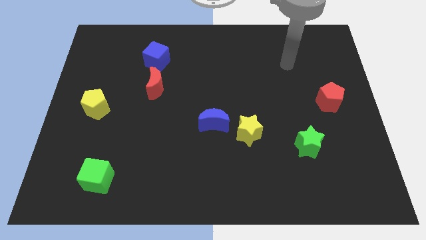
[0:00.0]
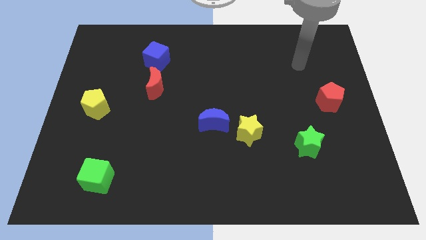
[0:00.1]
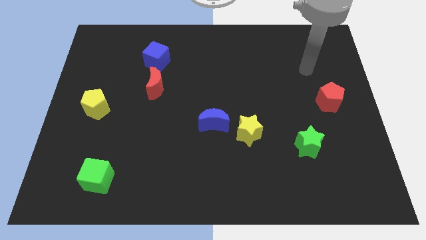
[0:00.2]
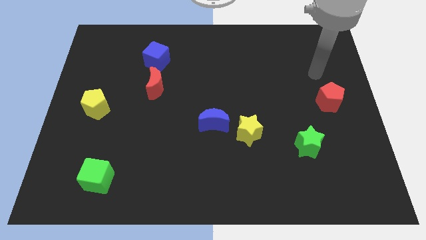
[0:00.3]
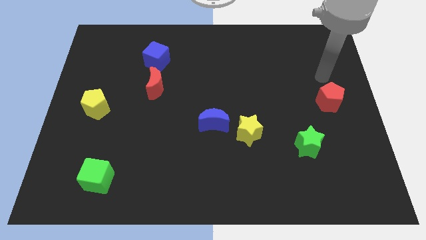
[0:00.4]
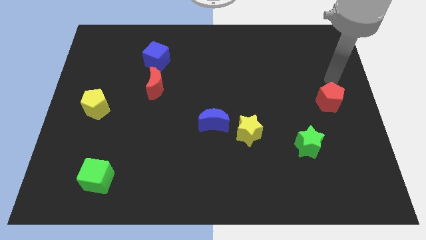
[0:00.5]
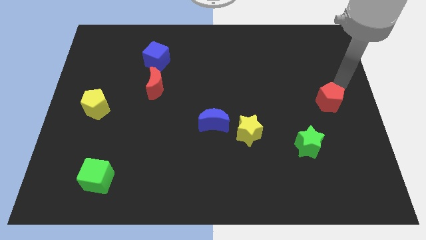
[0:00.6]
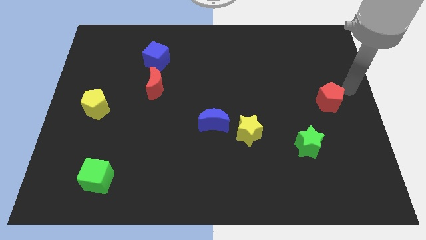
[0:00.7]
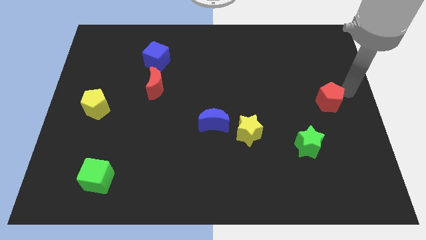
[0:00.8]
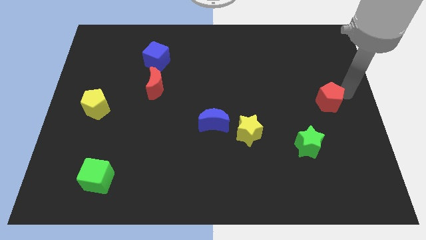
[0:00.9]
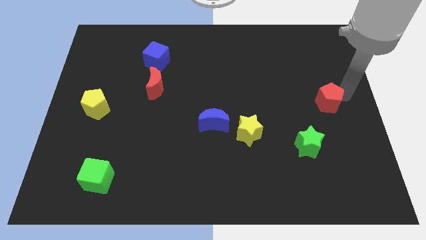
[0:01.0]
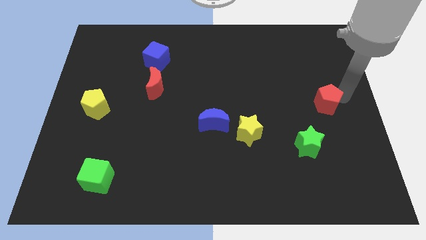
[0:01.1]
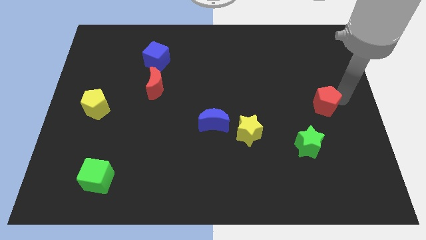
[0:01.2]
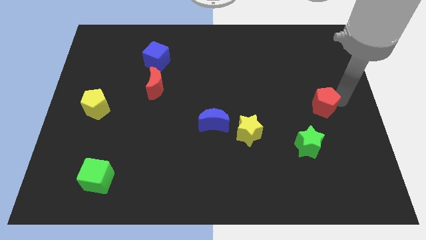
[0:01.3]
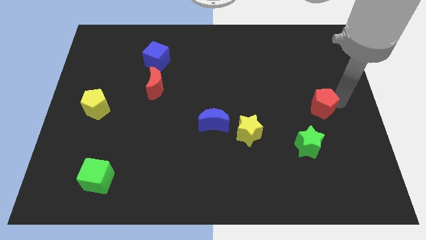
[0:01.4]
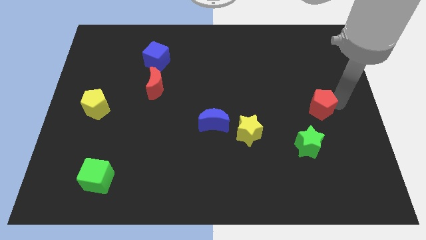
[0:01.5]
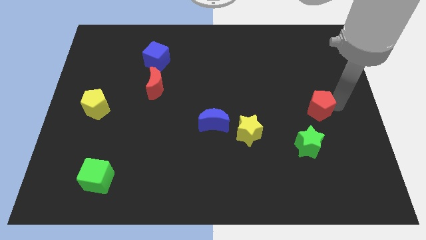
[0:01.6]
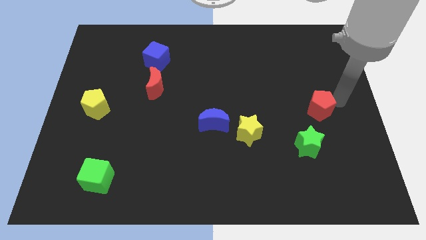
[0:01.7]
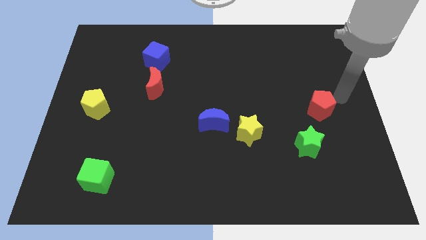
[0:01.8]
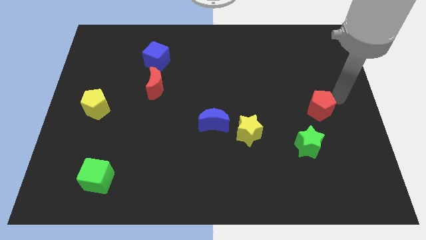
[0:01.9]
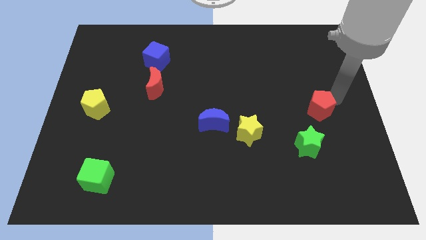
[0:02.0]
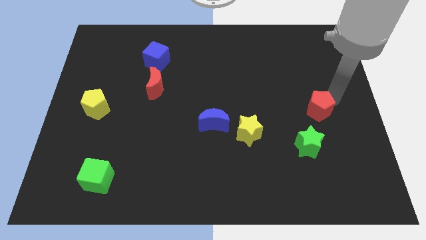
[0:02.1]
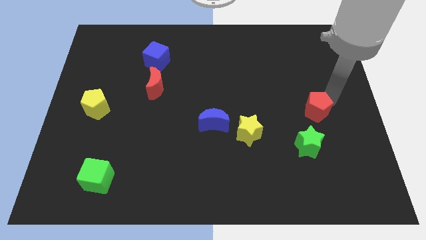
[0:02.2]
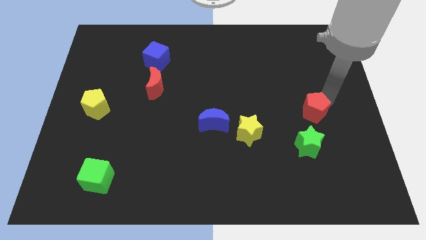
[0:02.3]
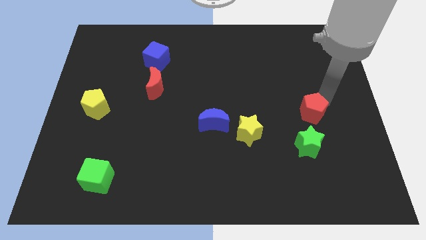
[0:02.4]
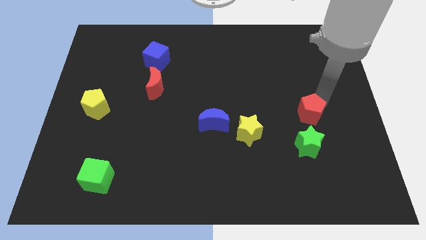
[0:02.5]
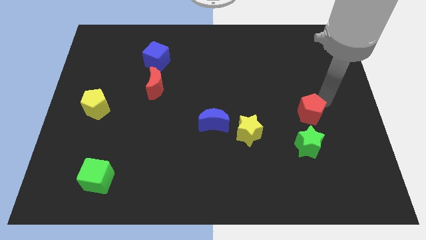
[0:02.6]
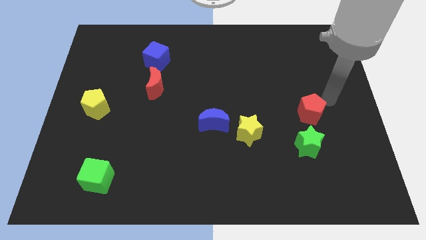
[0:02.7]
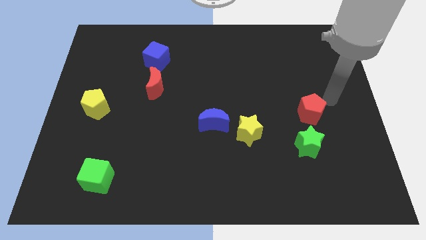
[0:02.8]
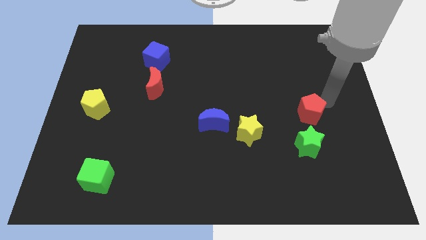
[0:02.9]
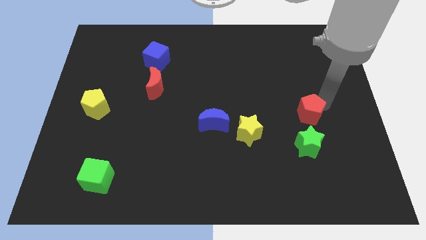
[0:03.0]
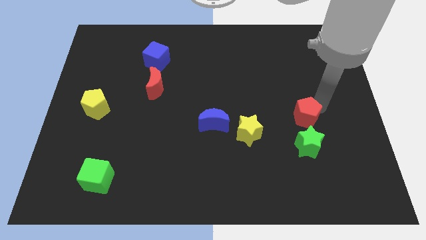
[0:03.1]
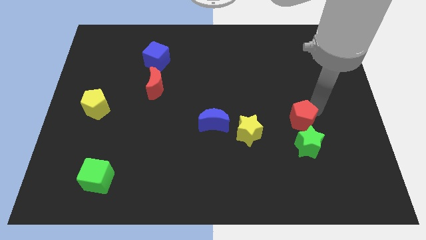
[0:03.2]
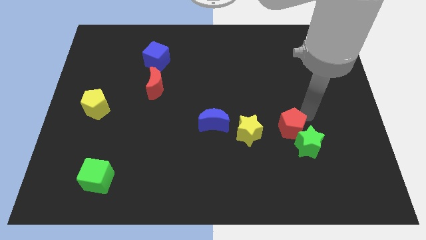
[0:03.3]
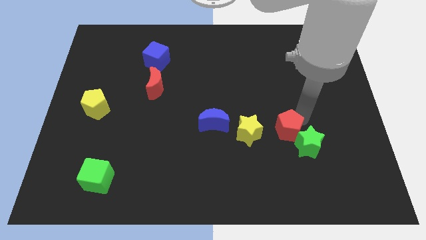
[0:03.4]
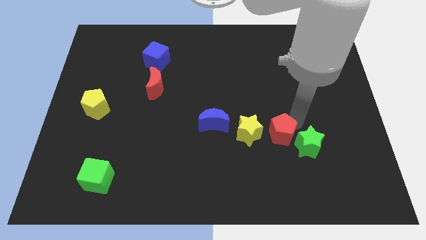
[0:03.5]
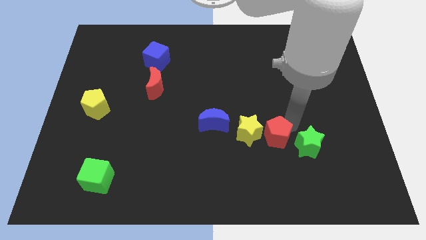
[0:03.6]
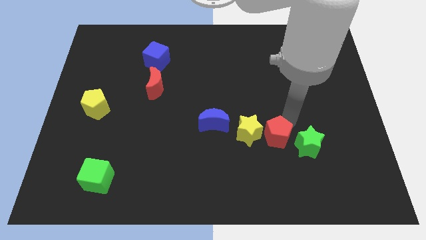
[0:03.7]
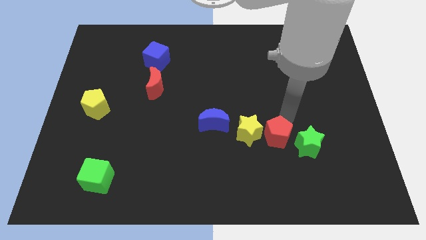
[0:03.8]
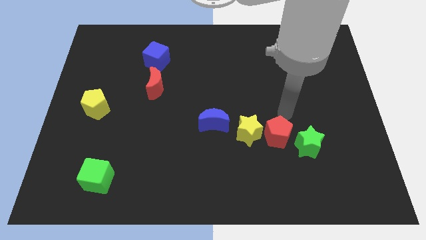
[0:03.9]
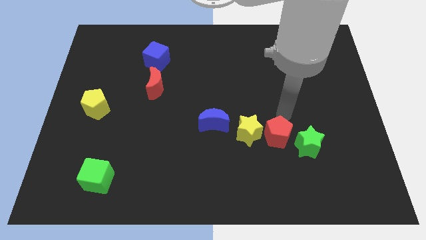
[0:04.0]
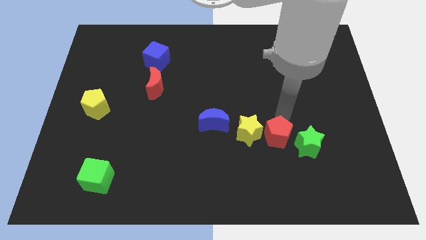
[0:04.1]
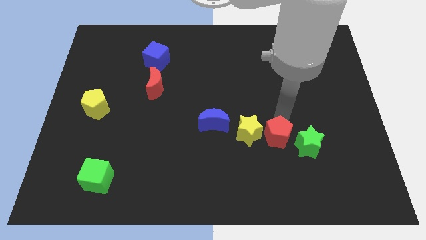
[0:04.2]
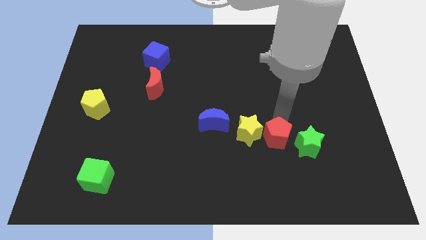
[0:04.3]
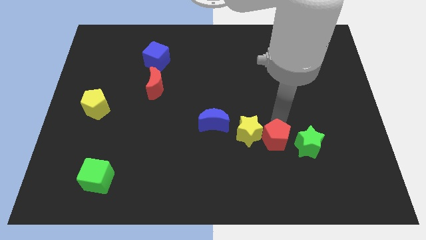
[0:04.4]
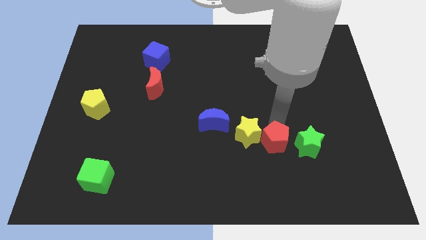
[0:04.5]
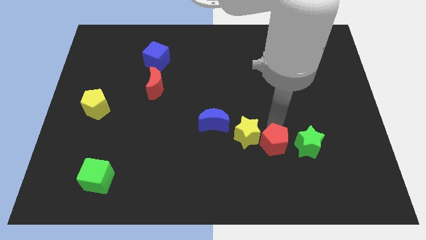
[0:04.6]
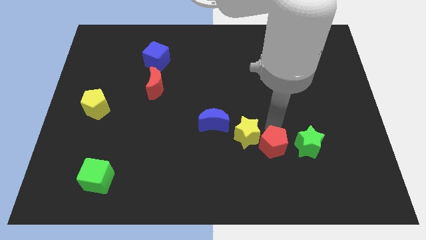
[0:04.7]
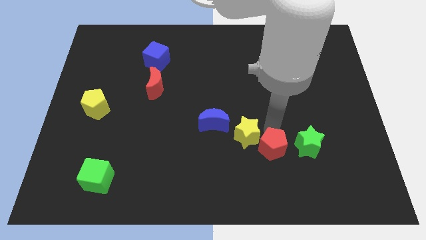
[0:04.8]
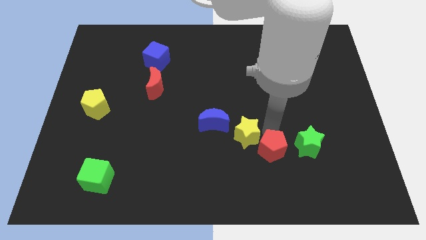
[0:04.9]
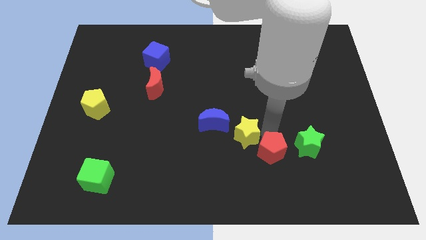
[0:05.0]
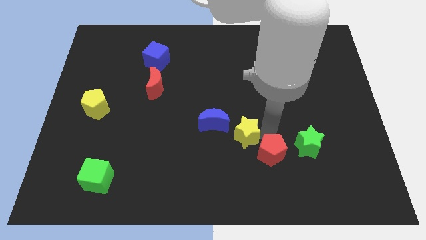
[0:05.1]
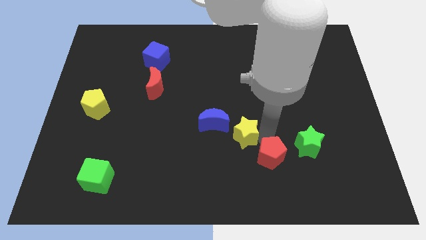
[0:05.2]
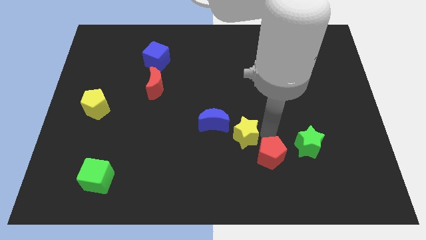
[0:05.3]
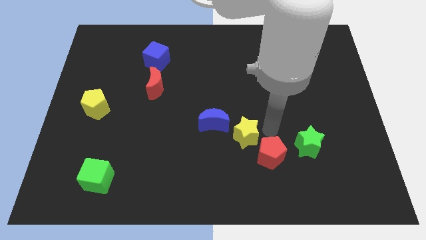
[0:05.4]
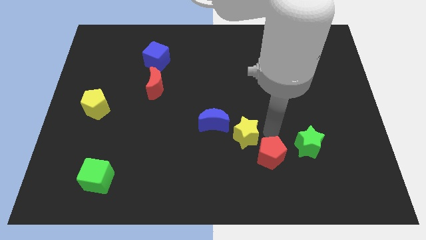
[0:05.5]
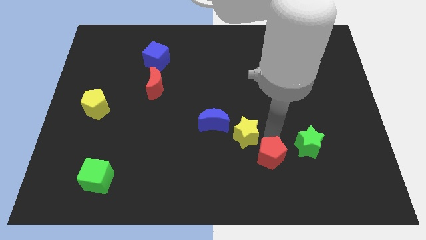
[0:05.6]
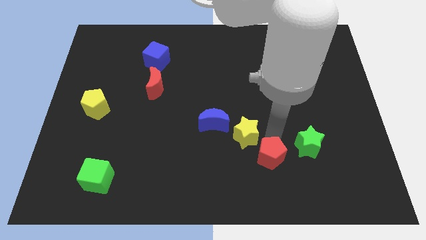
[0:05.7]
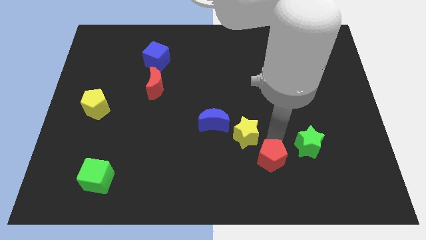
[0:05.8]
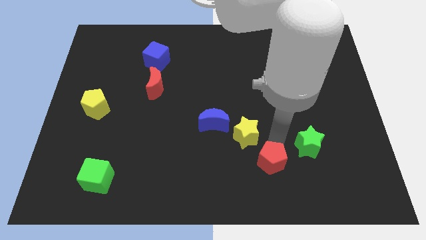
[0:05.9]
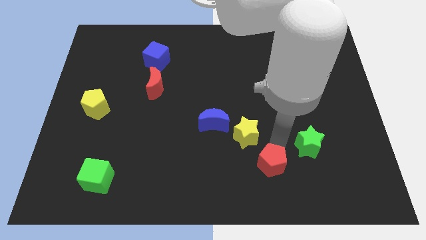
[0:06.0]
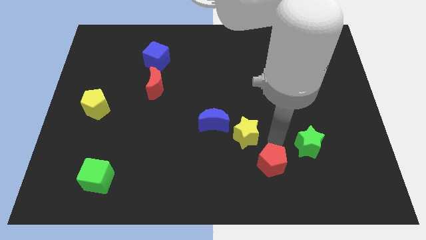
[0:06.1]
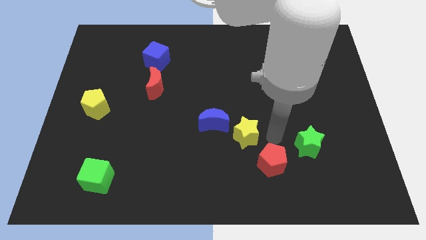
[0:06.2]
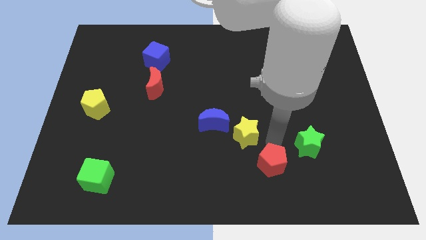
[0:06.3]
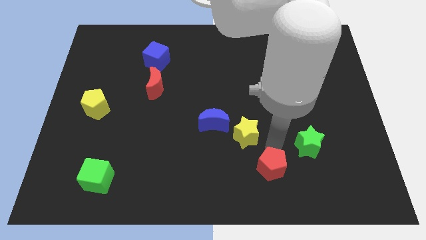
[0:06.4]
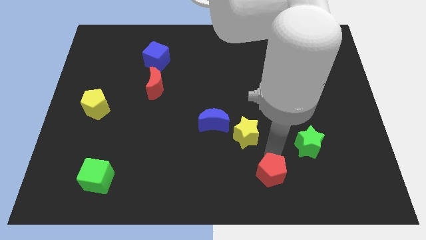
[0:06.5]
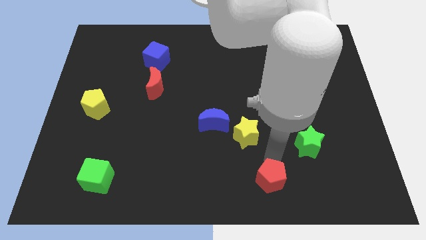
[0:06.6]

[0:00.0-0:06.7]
move the red pentagon to the bottom
